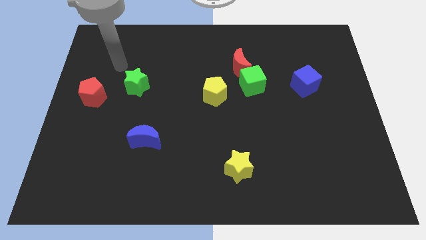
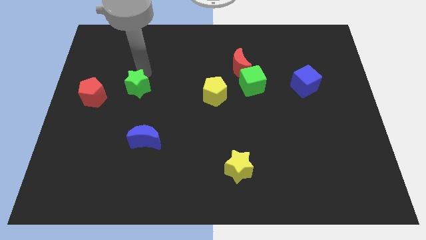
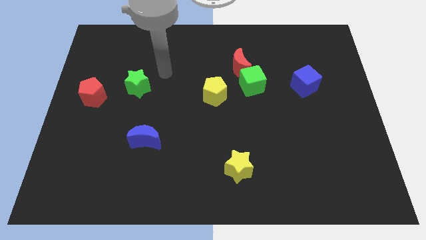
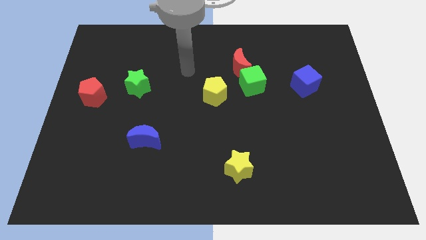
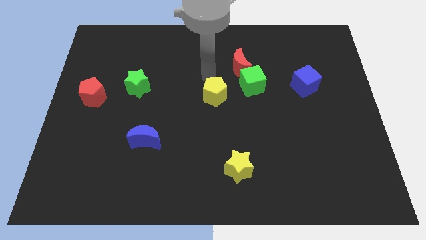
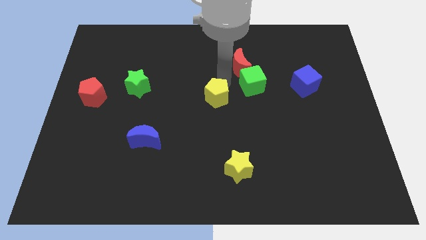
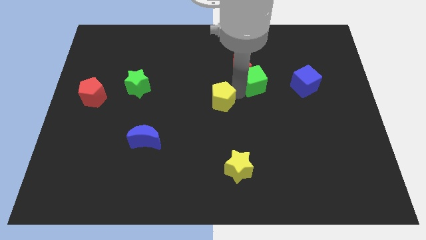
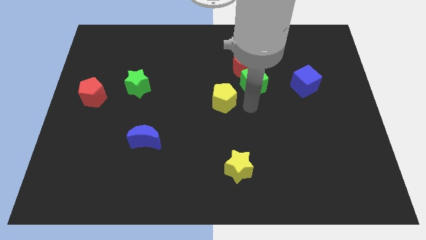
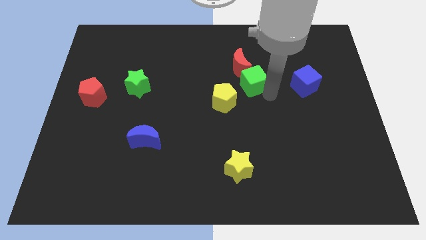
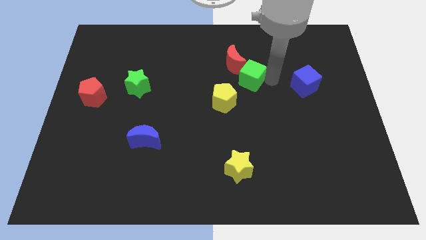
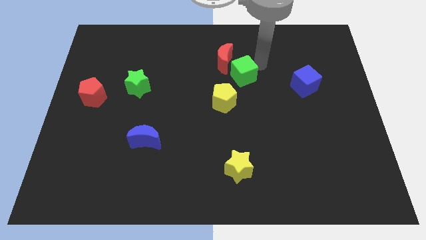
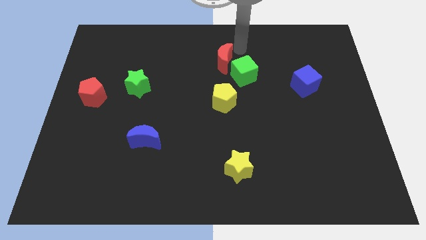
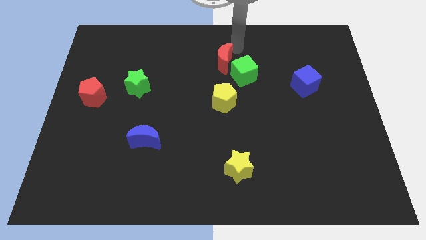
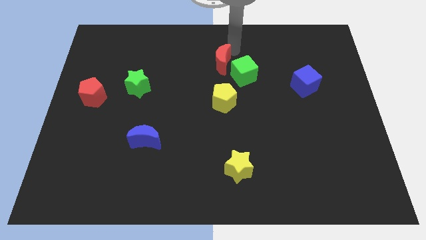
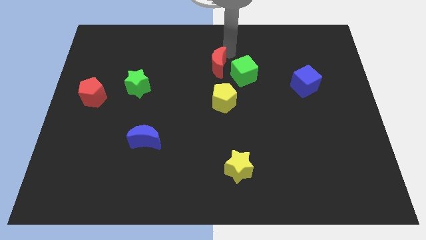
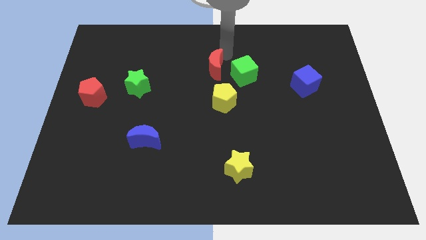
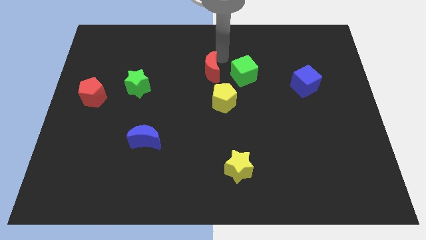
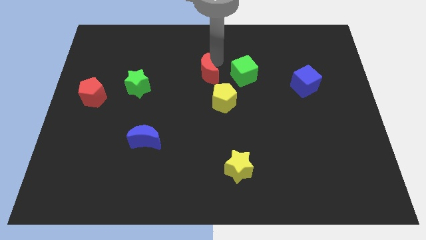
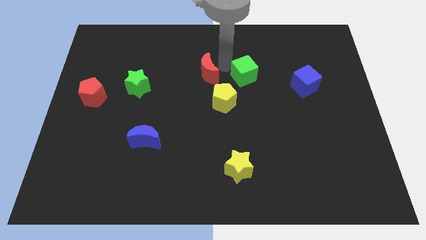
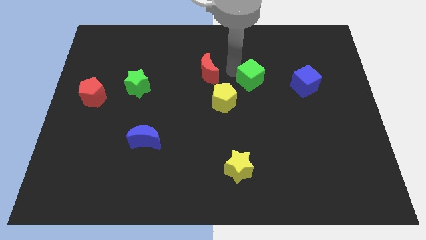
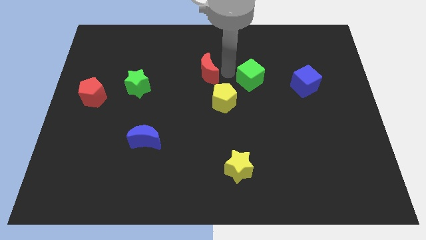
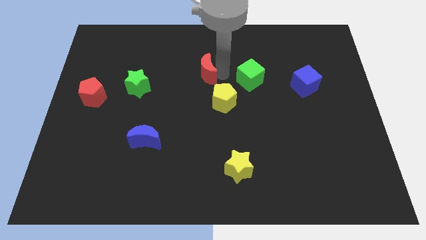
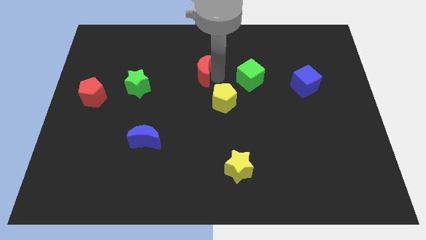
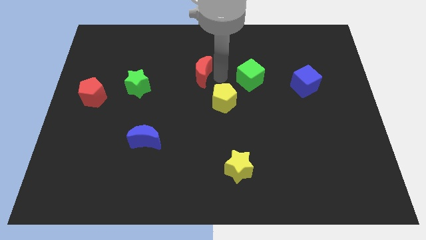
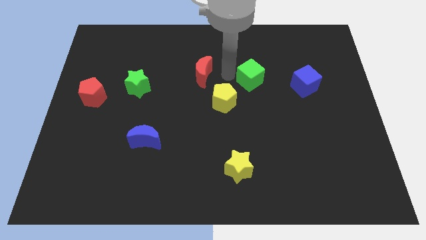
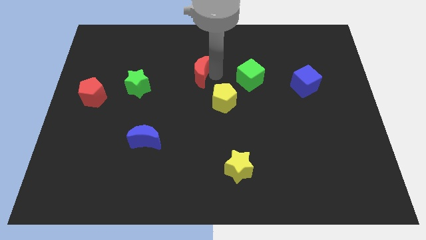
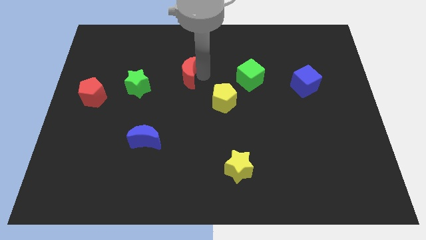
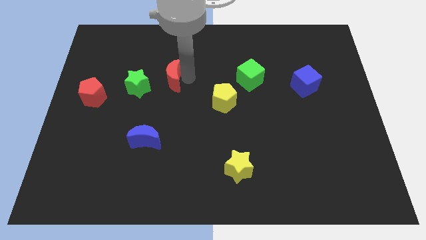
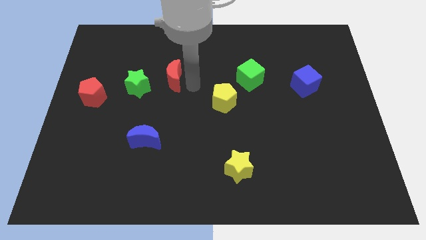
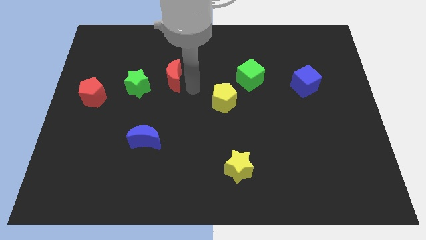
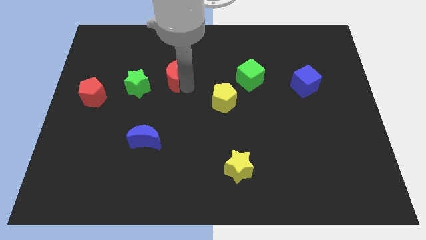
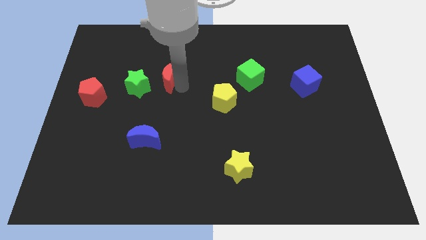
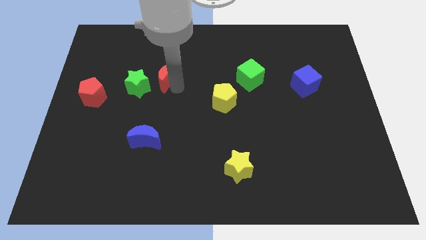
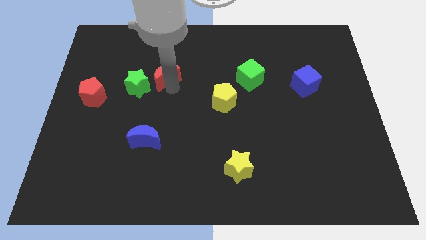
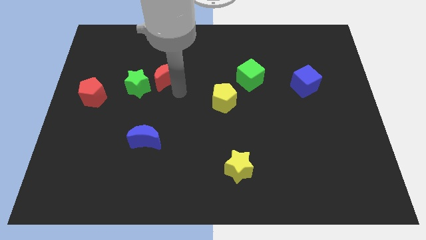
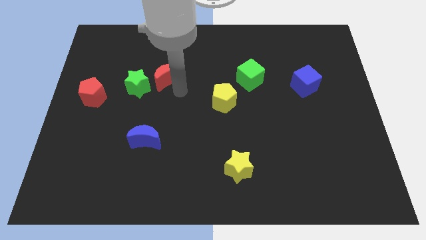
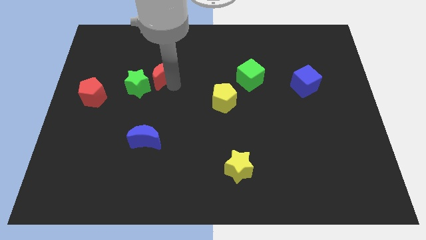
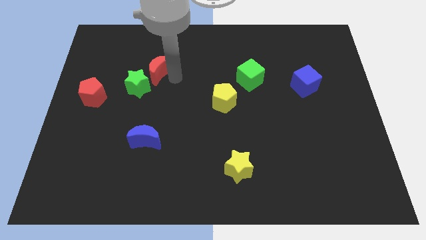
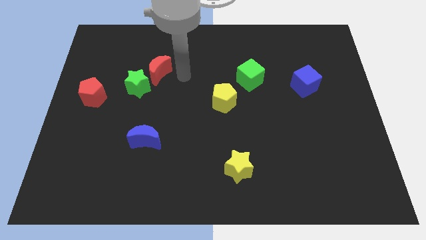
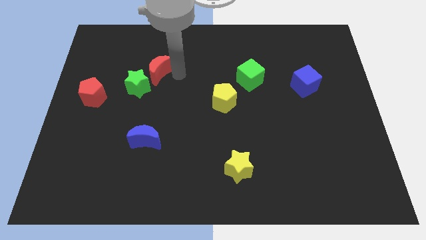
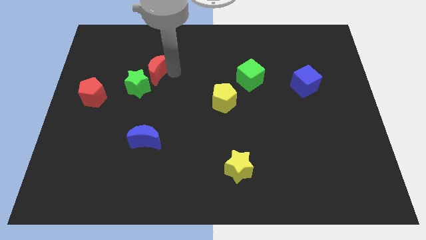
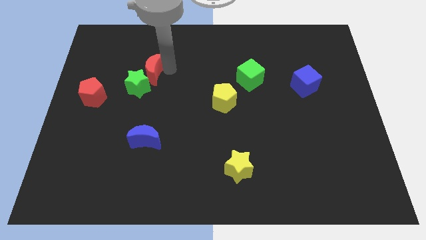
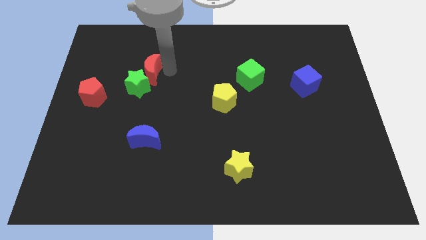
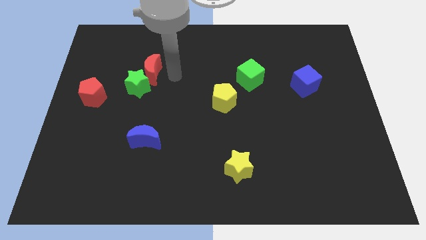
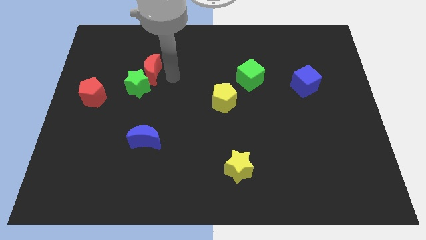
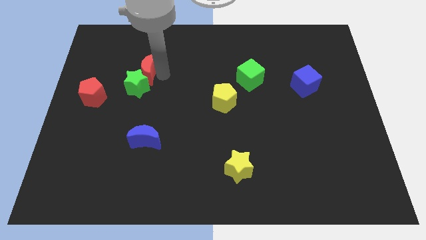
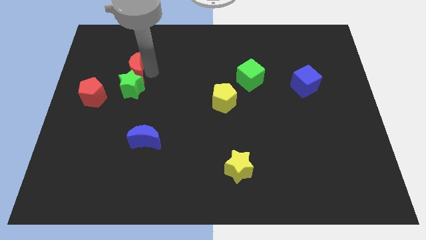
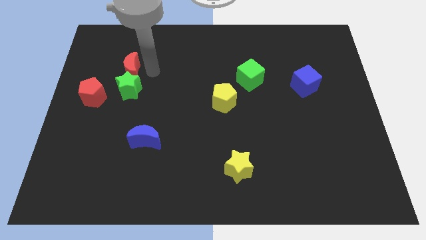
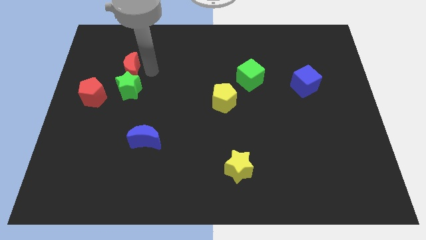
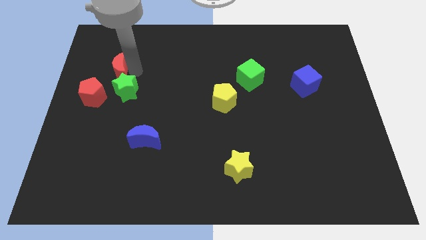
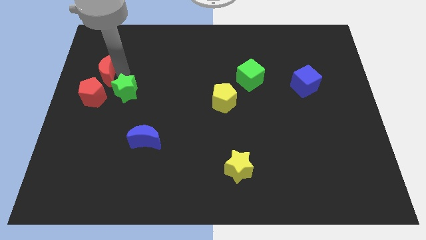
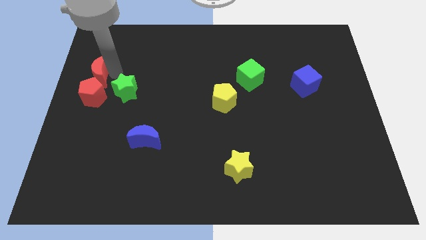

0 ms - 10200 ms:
move the red moon to the center left

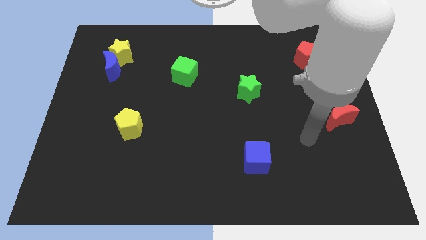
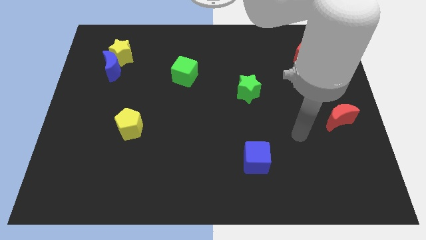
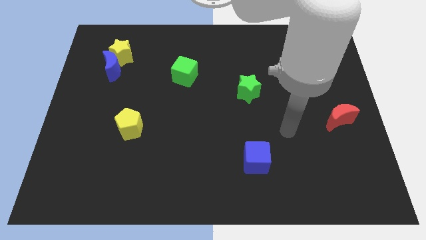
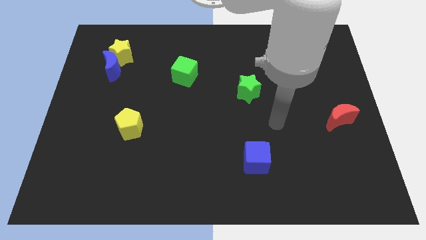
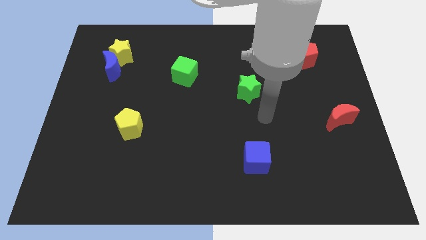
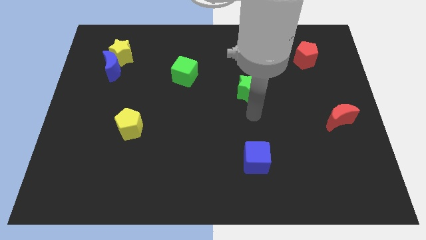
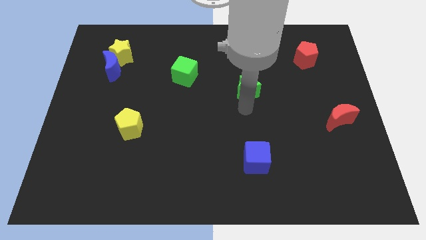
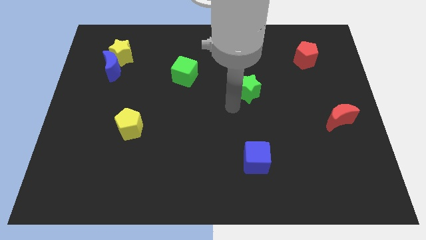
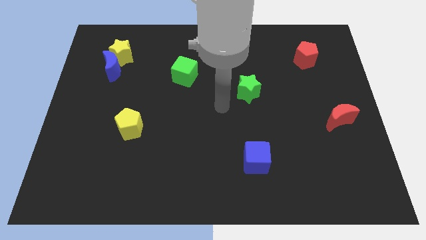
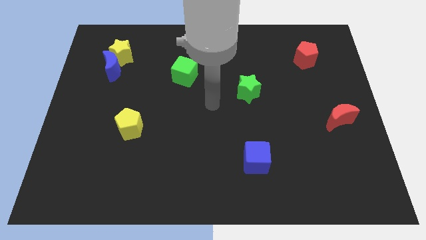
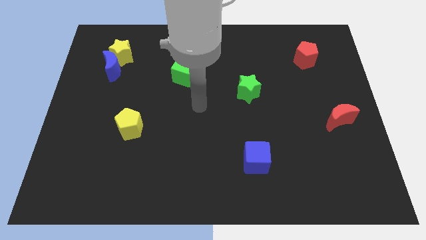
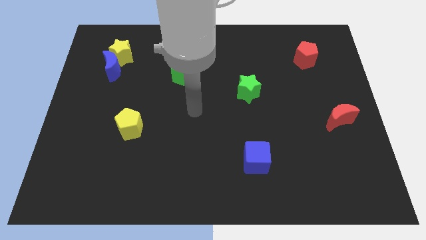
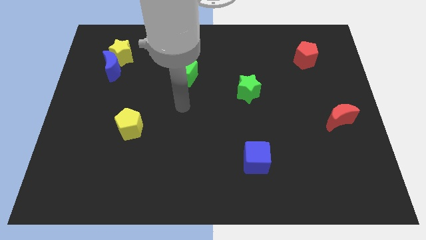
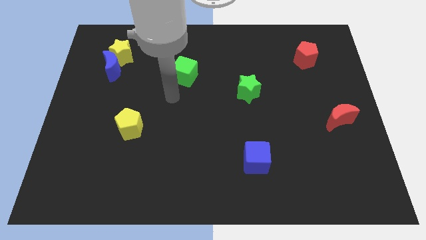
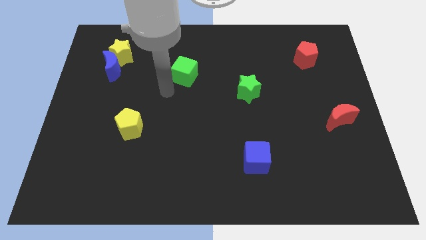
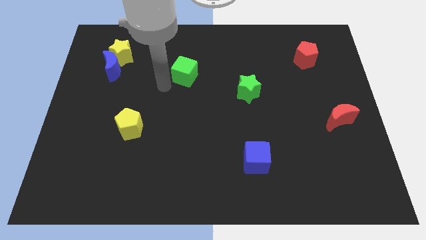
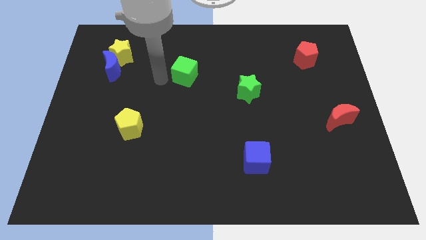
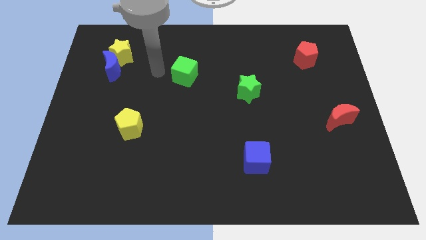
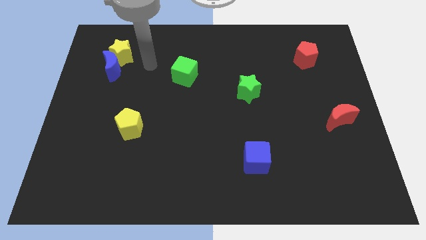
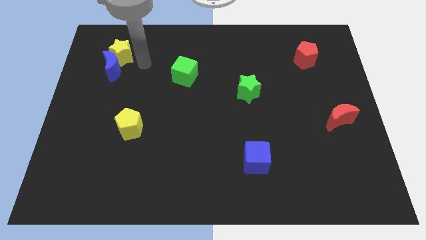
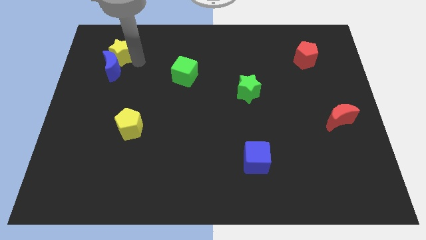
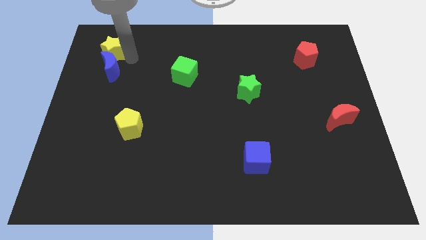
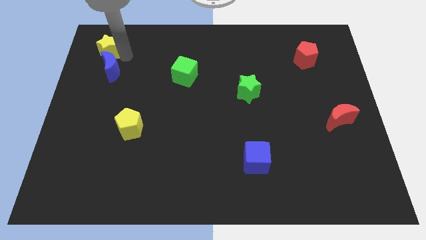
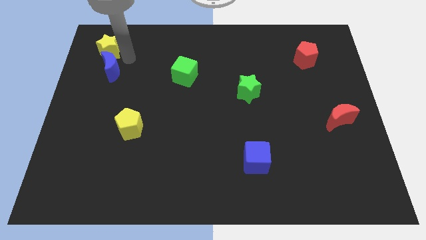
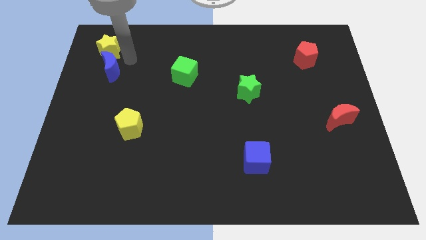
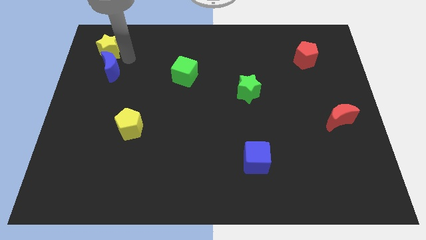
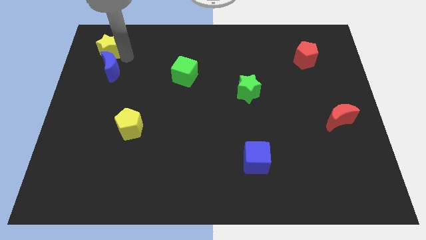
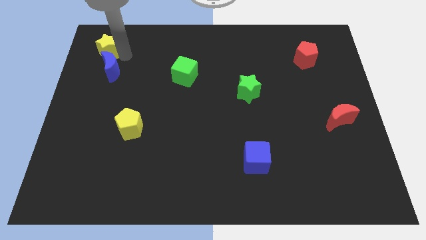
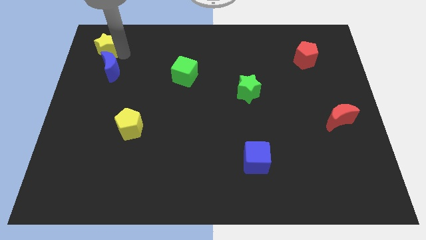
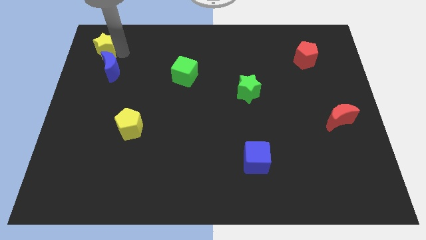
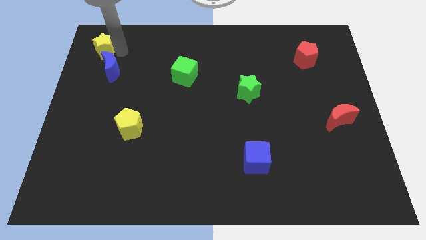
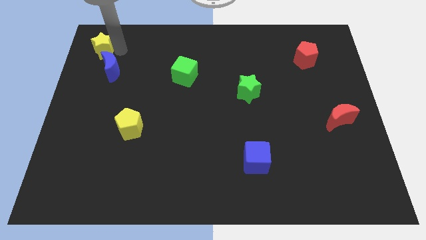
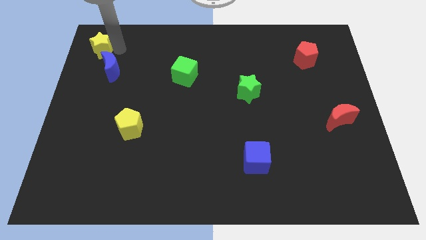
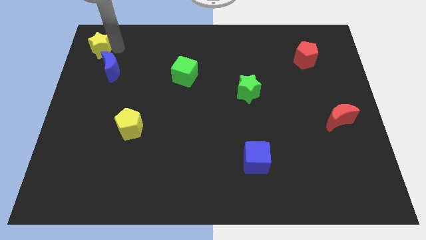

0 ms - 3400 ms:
put the yellow star to the upper left corner
